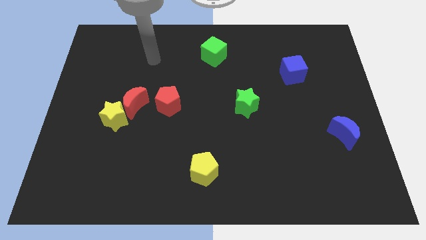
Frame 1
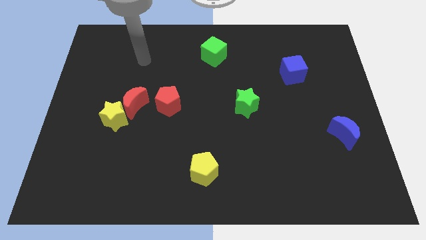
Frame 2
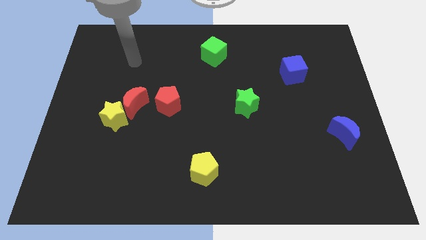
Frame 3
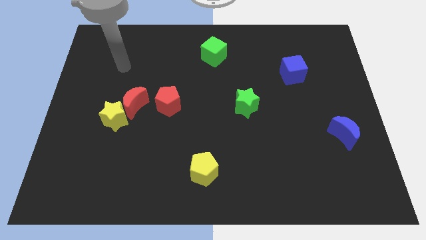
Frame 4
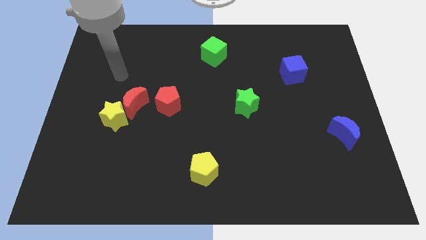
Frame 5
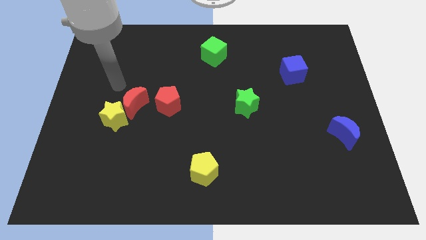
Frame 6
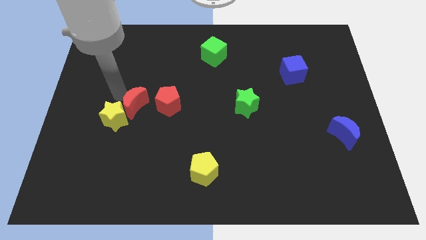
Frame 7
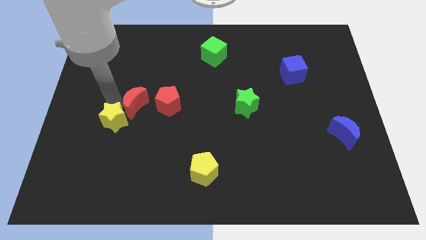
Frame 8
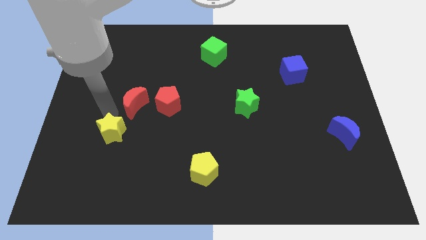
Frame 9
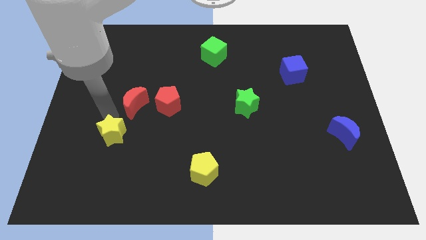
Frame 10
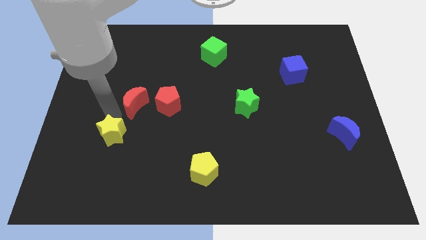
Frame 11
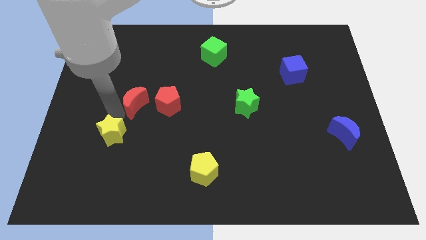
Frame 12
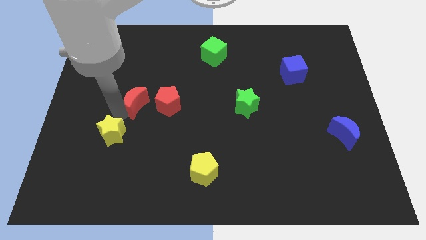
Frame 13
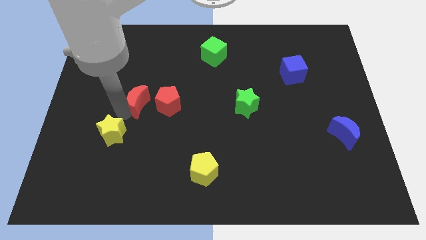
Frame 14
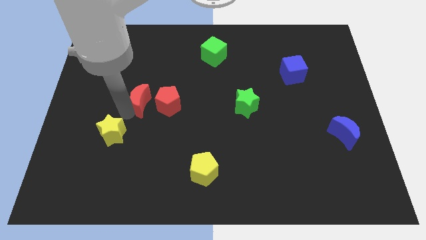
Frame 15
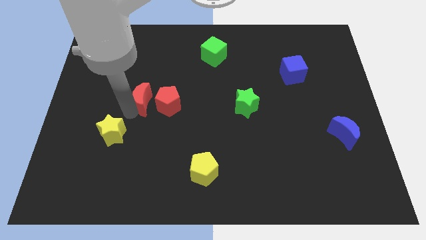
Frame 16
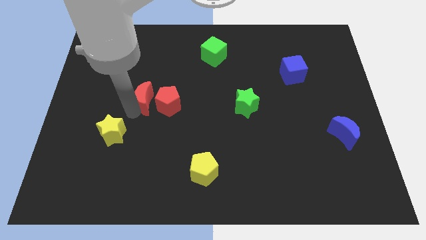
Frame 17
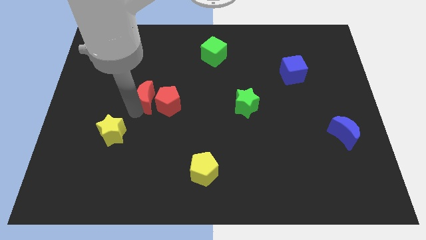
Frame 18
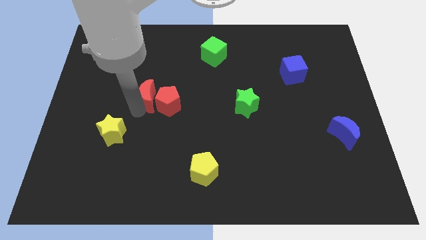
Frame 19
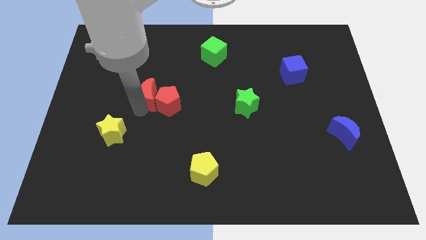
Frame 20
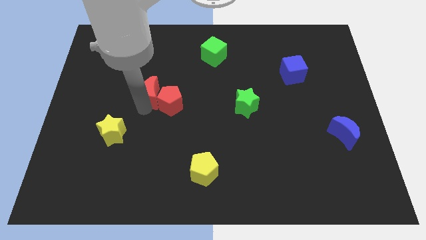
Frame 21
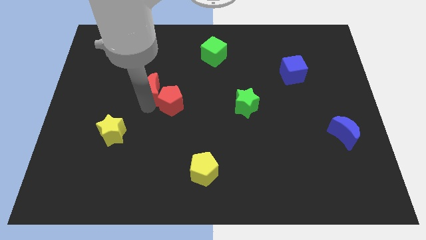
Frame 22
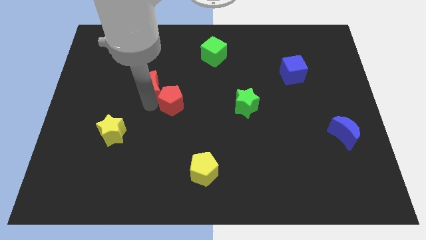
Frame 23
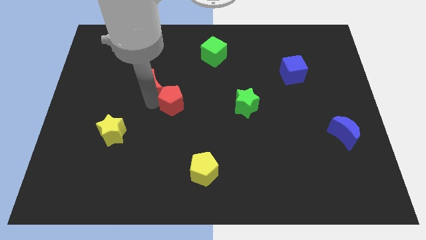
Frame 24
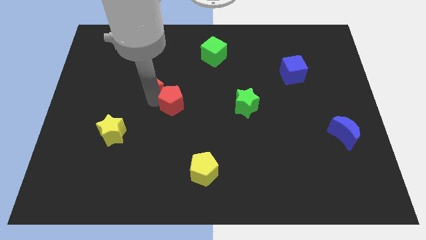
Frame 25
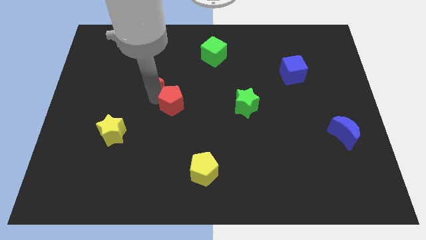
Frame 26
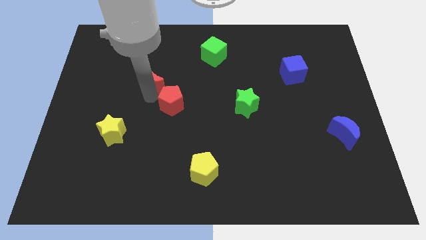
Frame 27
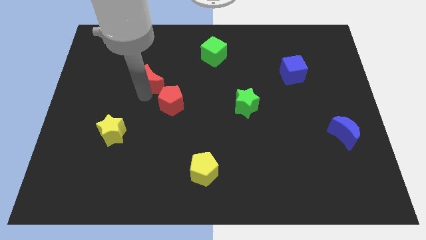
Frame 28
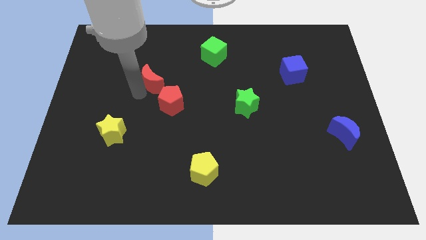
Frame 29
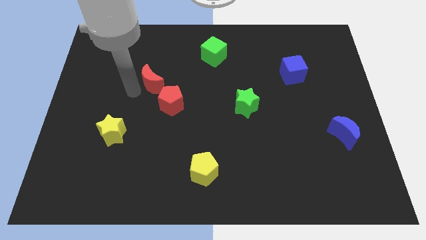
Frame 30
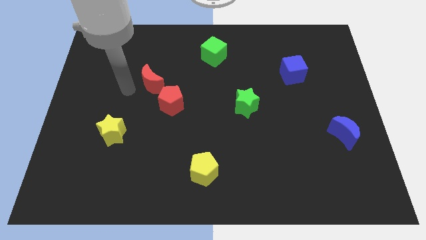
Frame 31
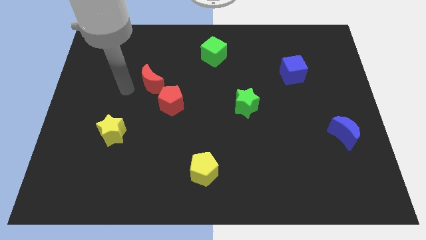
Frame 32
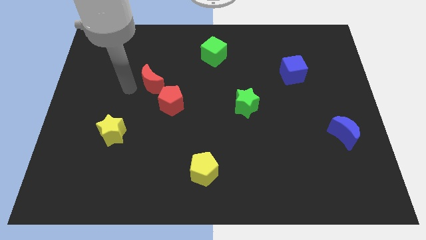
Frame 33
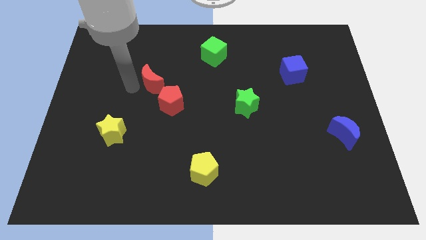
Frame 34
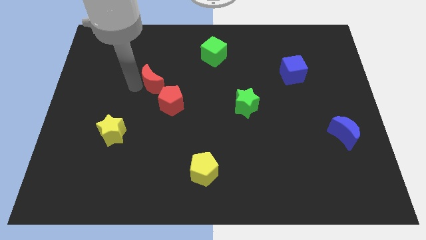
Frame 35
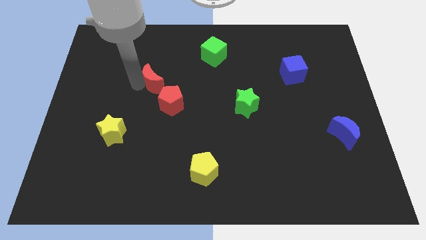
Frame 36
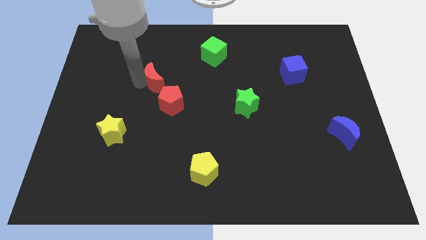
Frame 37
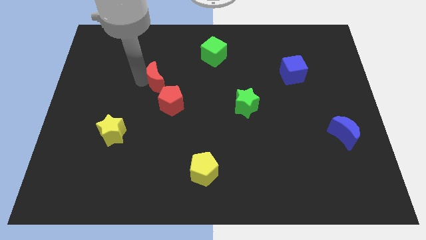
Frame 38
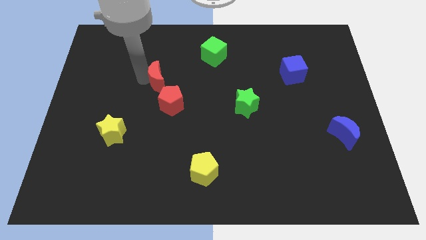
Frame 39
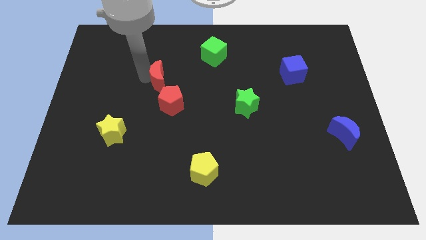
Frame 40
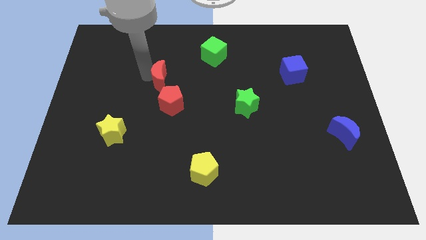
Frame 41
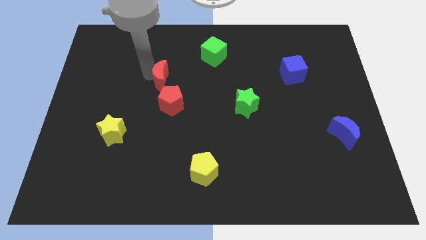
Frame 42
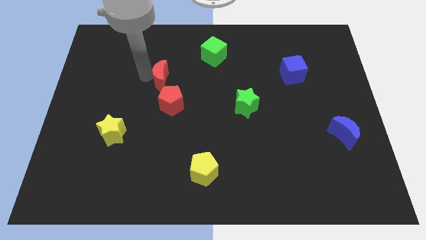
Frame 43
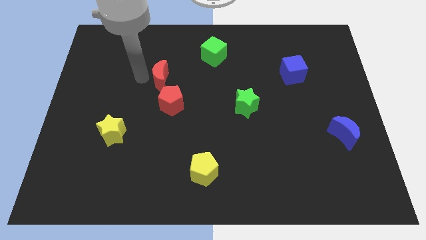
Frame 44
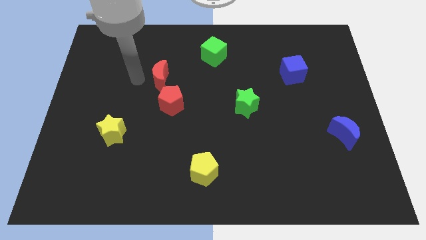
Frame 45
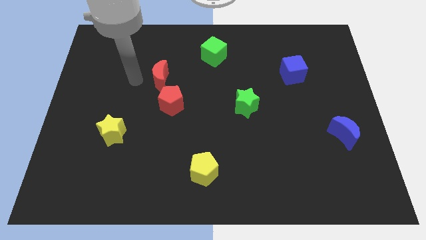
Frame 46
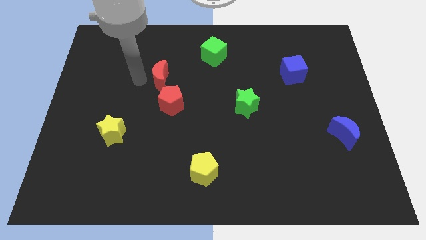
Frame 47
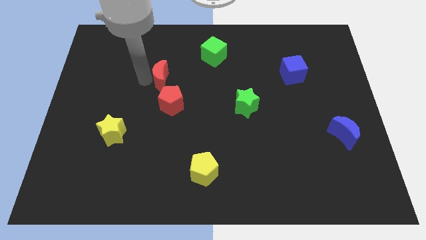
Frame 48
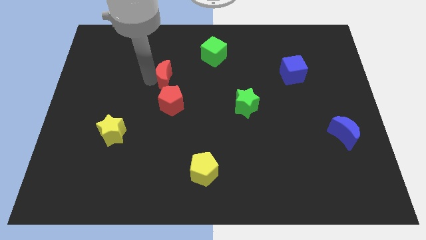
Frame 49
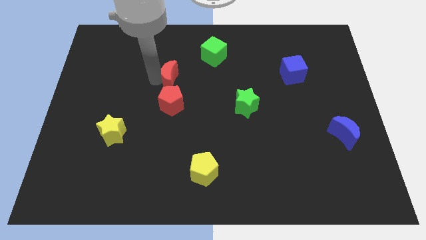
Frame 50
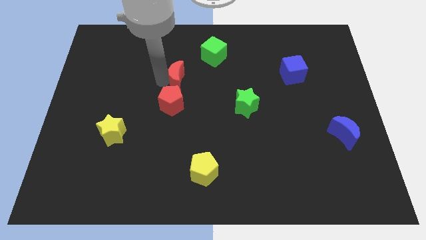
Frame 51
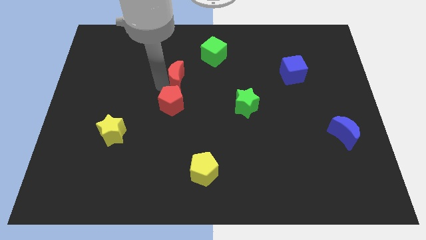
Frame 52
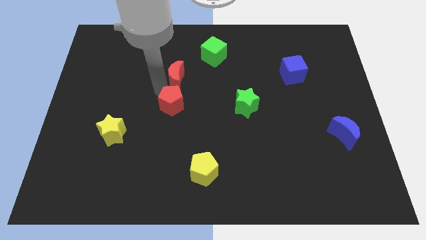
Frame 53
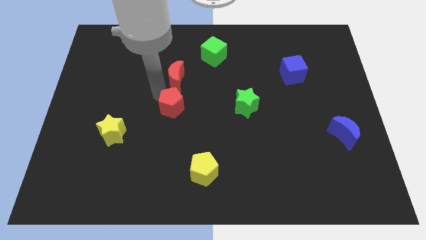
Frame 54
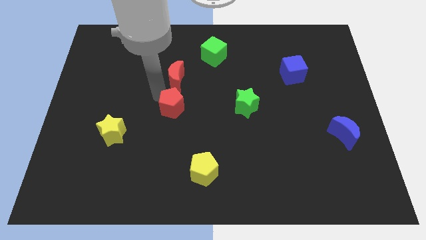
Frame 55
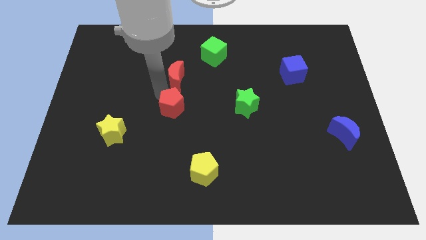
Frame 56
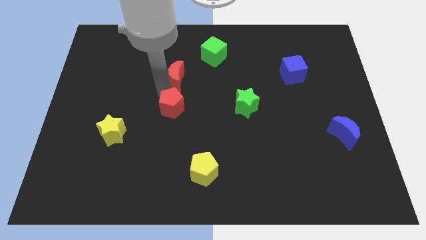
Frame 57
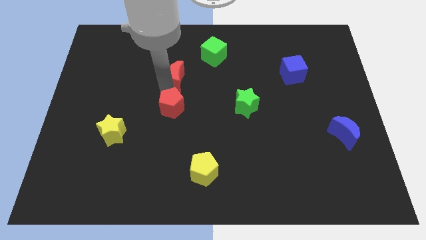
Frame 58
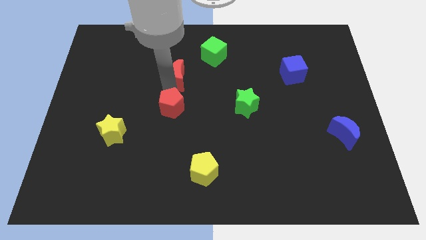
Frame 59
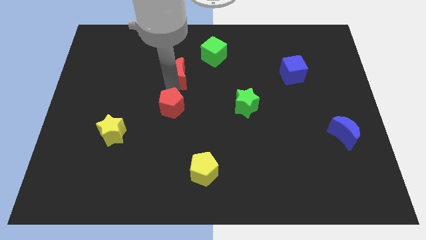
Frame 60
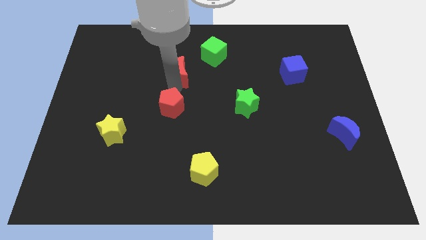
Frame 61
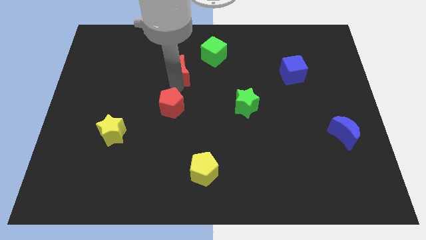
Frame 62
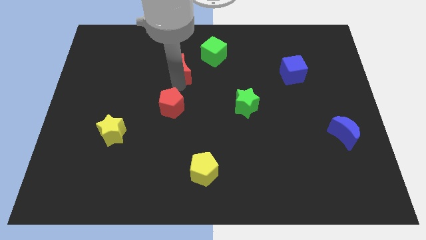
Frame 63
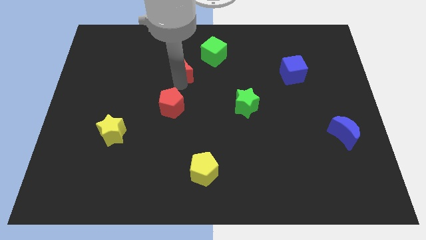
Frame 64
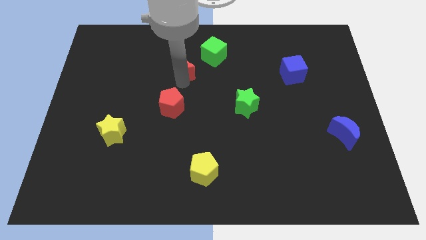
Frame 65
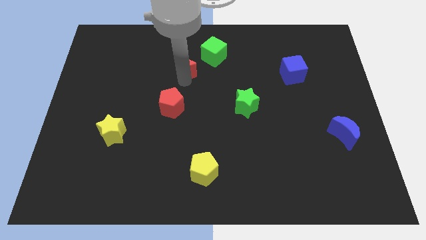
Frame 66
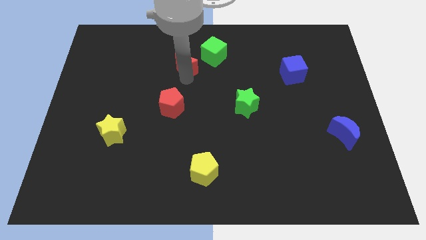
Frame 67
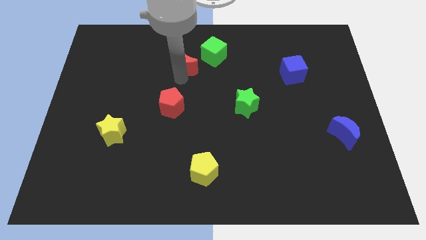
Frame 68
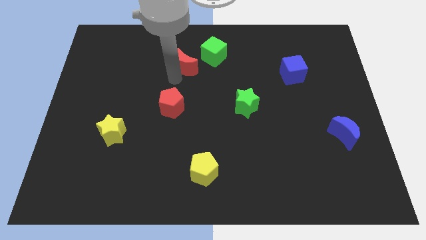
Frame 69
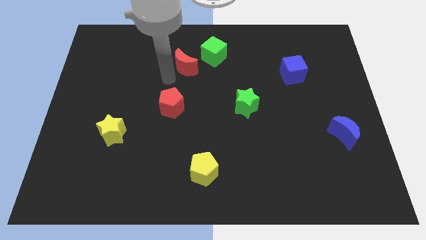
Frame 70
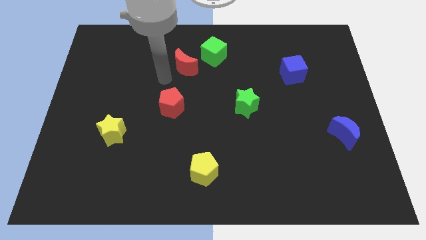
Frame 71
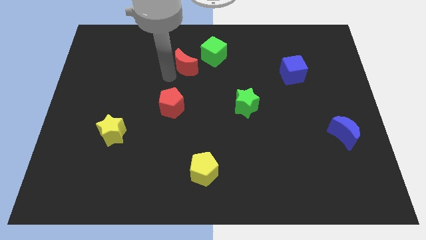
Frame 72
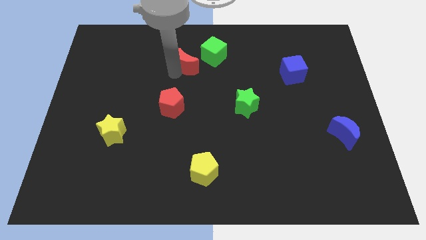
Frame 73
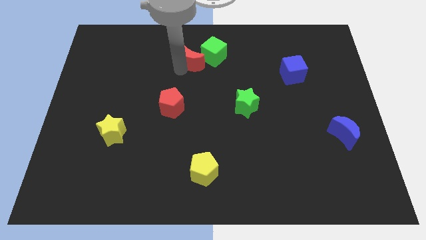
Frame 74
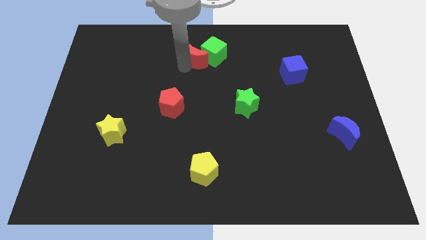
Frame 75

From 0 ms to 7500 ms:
slide the red moon towards the green cube
